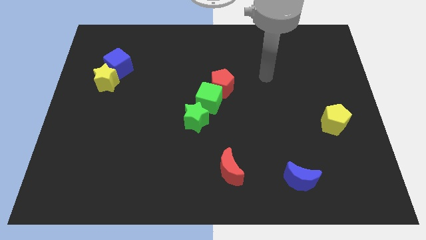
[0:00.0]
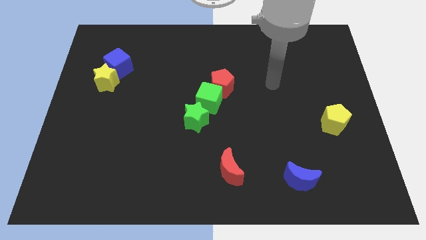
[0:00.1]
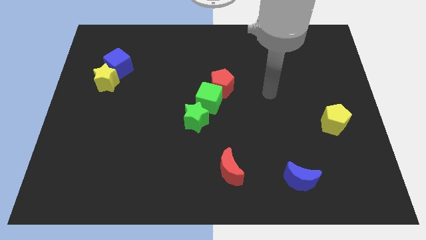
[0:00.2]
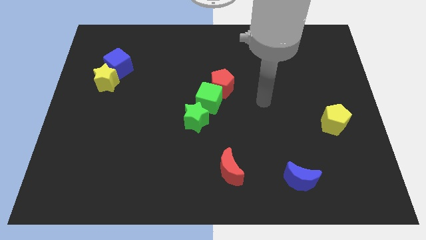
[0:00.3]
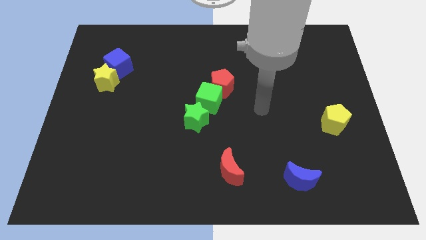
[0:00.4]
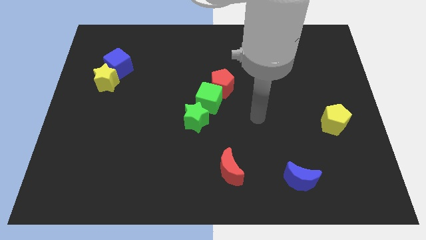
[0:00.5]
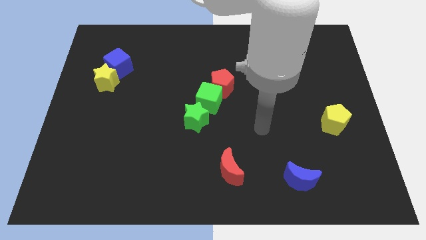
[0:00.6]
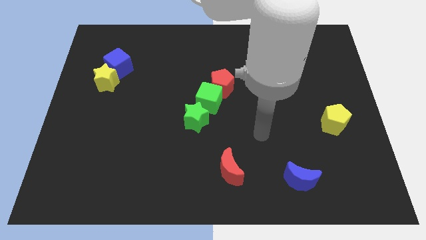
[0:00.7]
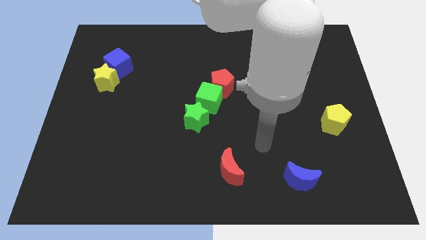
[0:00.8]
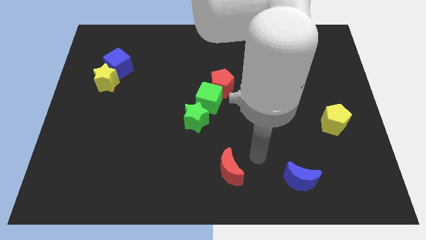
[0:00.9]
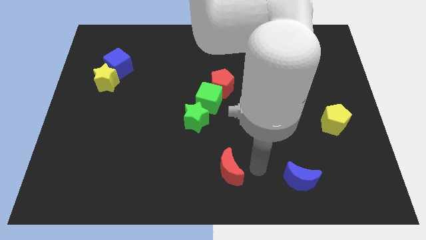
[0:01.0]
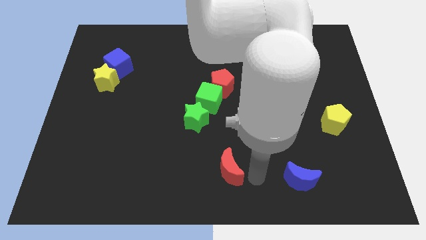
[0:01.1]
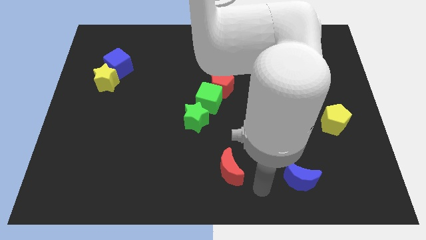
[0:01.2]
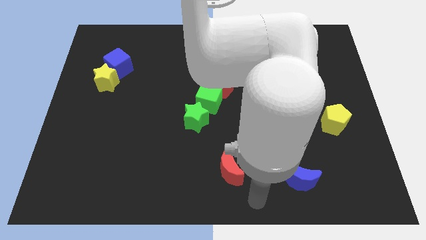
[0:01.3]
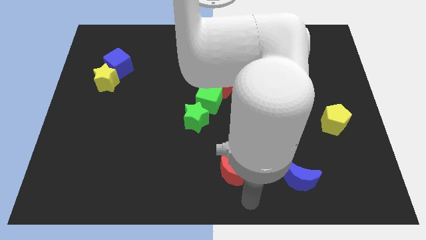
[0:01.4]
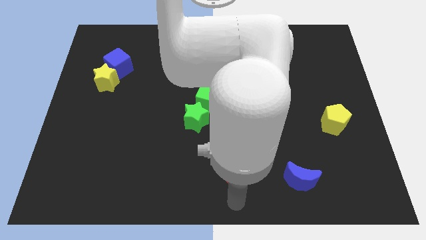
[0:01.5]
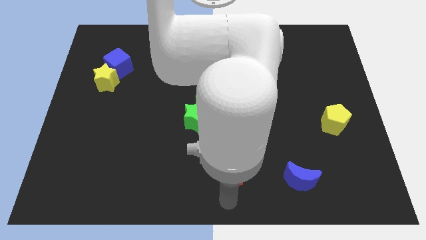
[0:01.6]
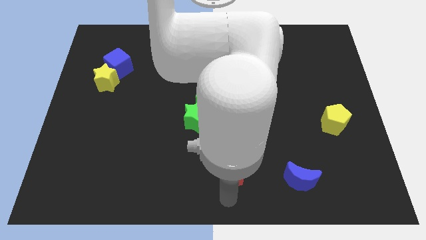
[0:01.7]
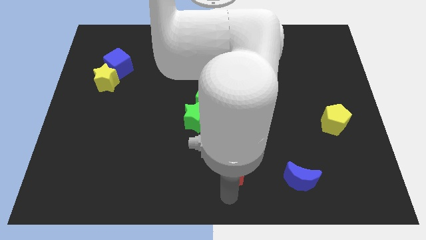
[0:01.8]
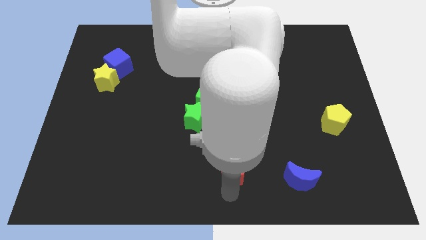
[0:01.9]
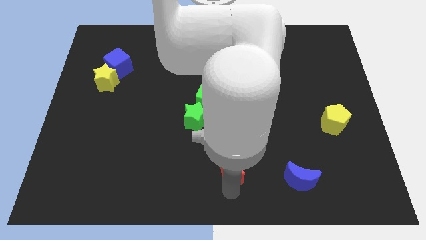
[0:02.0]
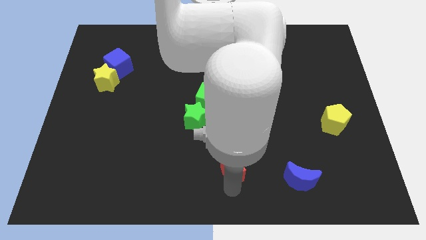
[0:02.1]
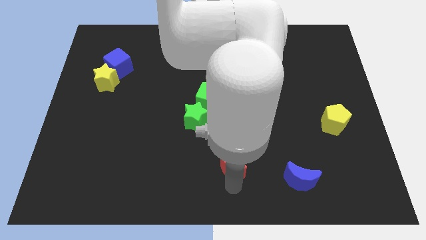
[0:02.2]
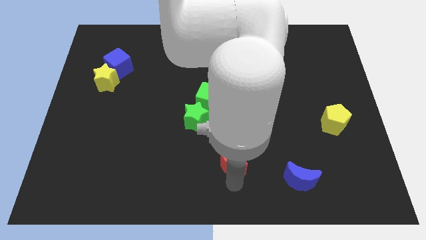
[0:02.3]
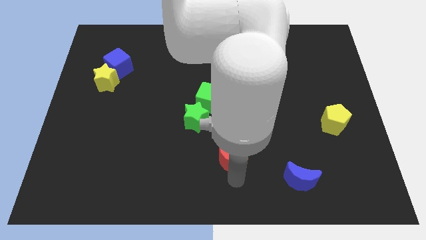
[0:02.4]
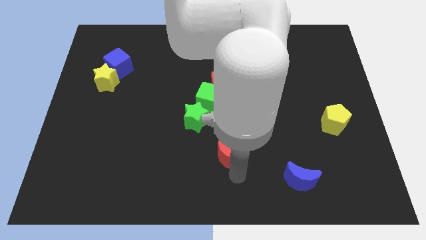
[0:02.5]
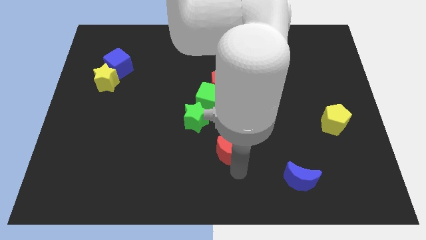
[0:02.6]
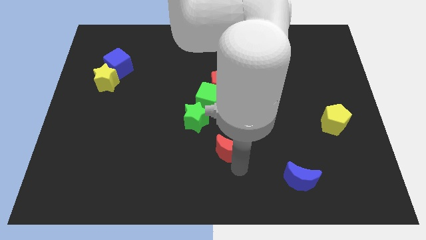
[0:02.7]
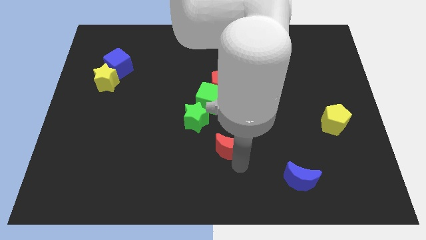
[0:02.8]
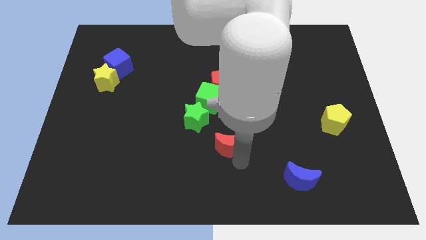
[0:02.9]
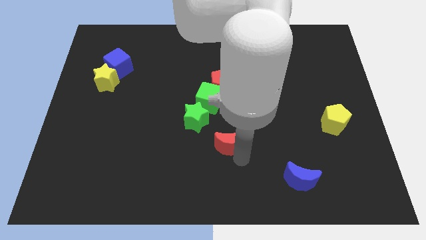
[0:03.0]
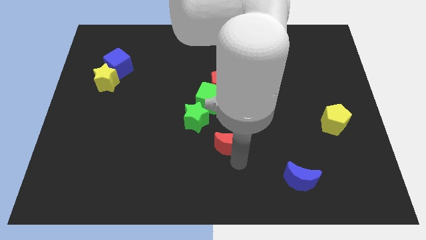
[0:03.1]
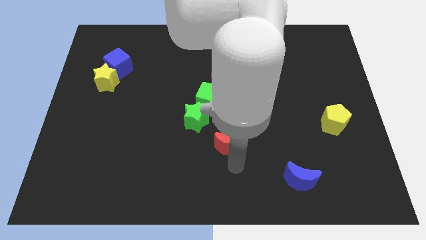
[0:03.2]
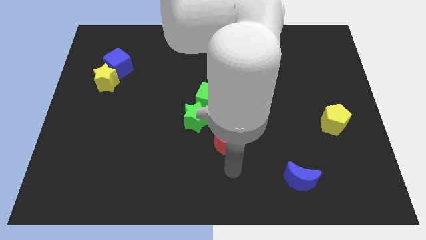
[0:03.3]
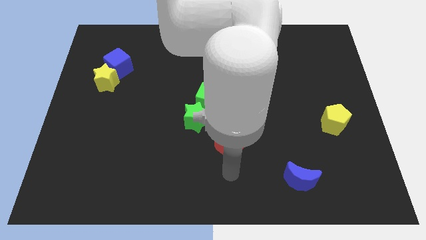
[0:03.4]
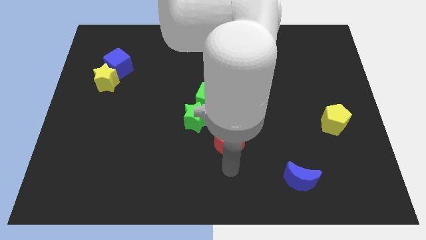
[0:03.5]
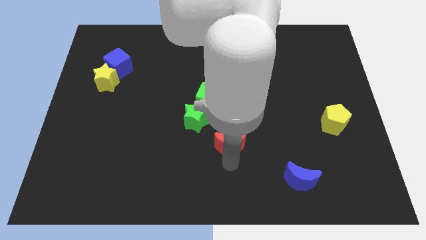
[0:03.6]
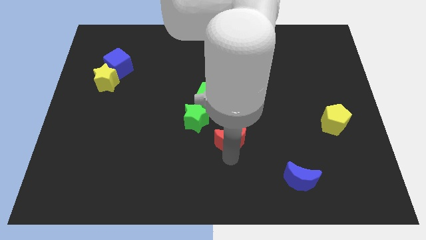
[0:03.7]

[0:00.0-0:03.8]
slightly push the red moon up

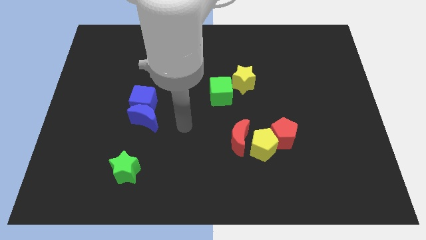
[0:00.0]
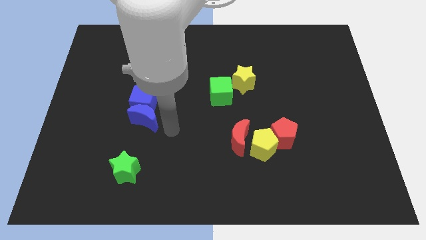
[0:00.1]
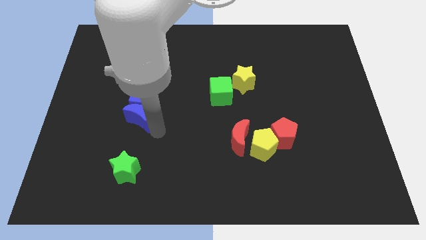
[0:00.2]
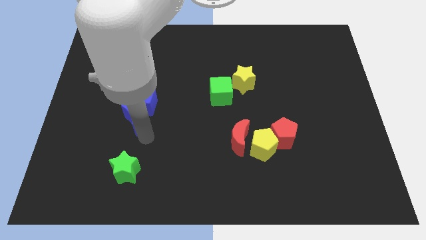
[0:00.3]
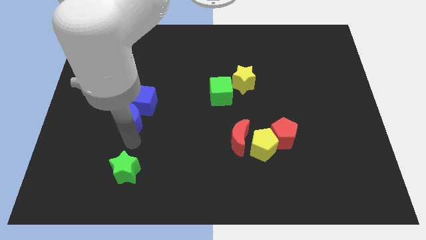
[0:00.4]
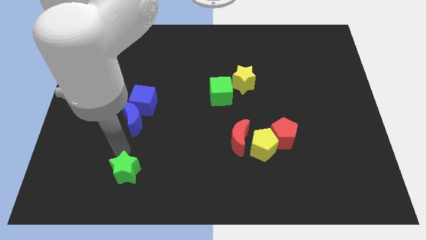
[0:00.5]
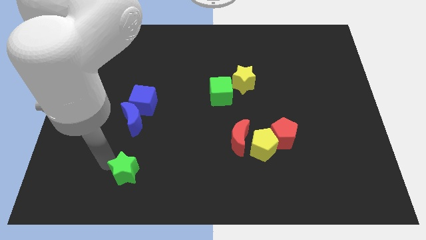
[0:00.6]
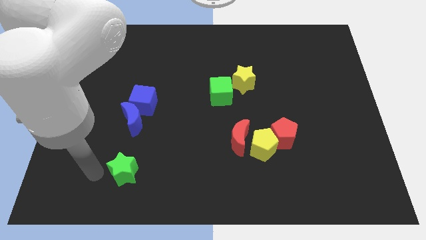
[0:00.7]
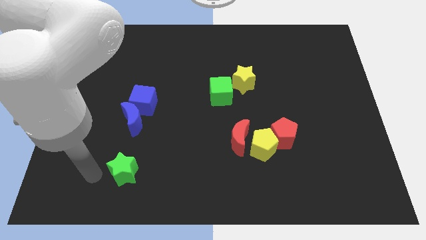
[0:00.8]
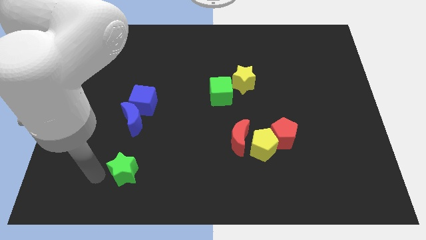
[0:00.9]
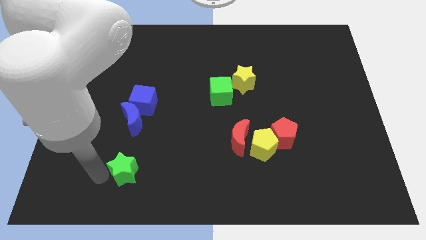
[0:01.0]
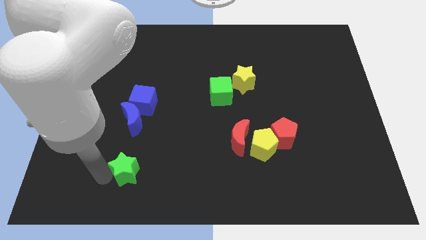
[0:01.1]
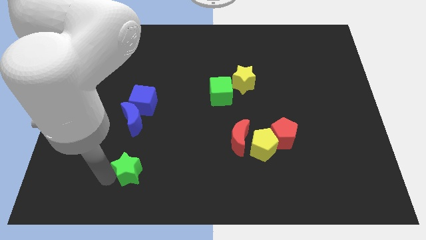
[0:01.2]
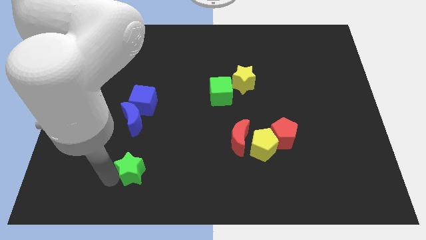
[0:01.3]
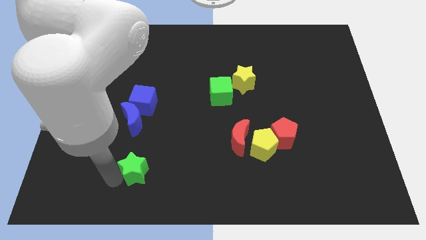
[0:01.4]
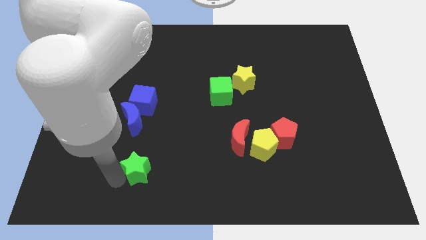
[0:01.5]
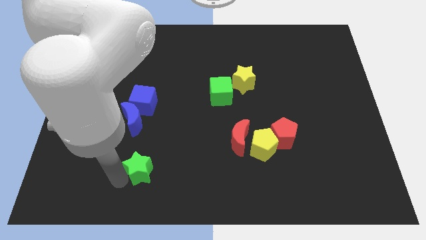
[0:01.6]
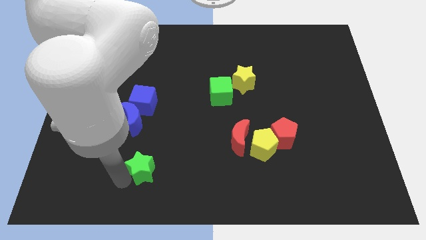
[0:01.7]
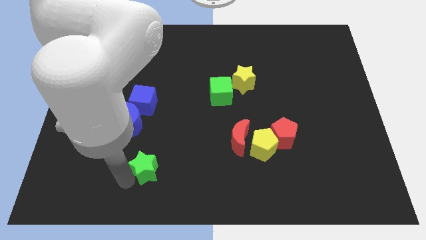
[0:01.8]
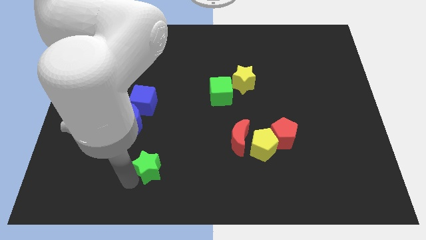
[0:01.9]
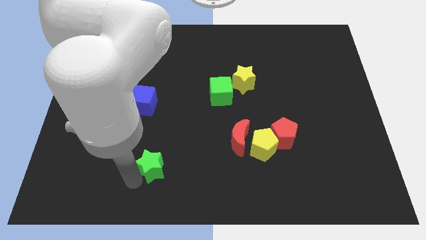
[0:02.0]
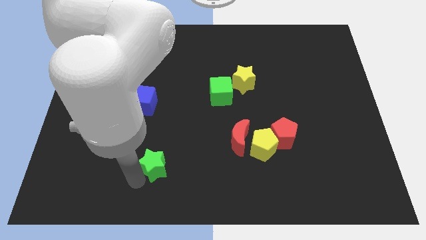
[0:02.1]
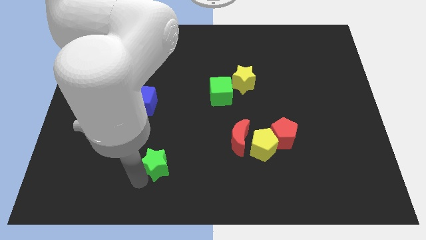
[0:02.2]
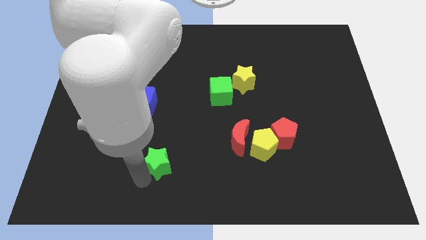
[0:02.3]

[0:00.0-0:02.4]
move the green star a little right

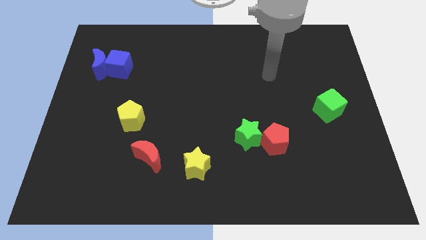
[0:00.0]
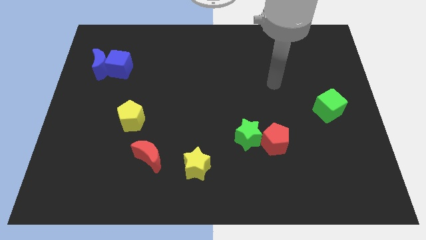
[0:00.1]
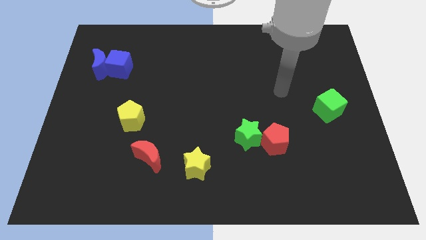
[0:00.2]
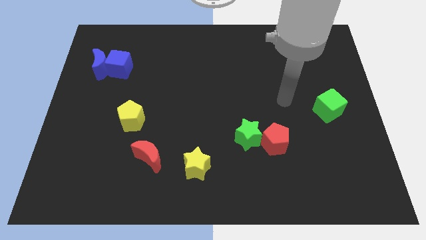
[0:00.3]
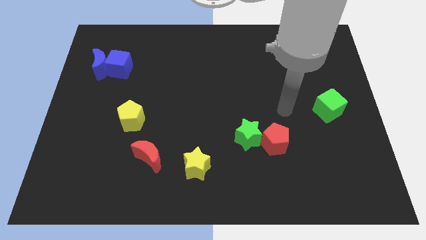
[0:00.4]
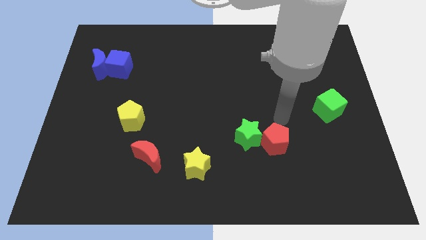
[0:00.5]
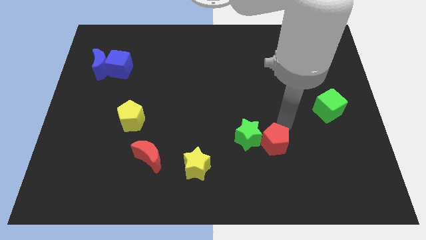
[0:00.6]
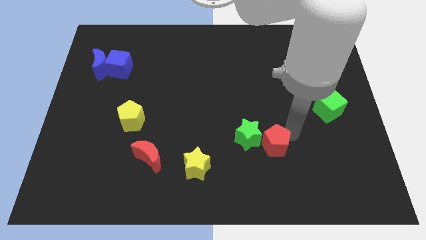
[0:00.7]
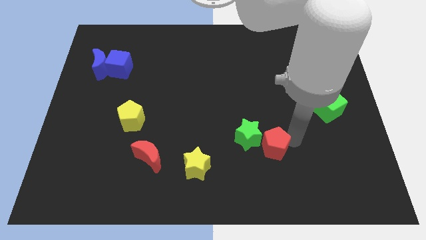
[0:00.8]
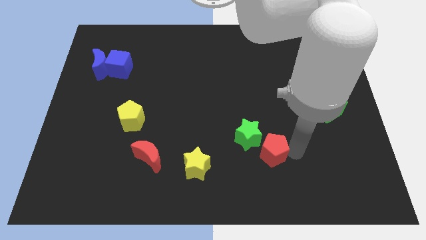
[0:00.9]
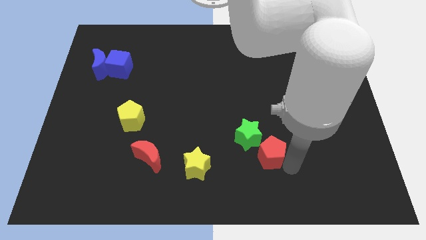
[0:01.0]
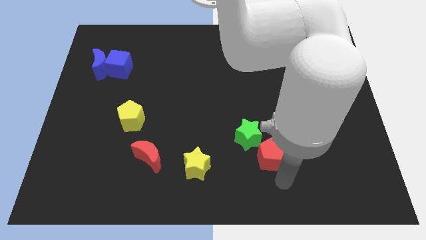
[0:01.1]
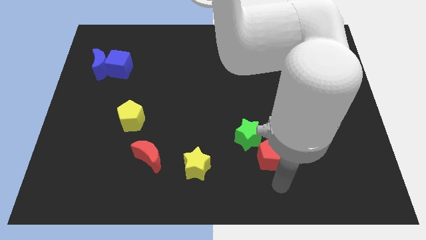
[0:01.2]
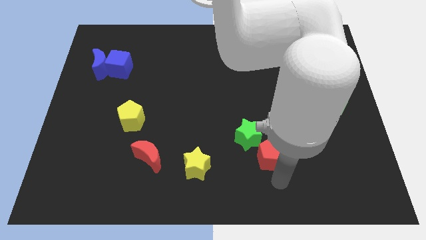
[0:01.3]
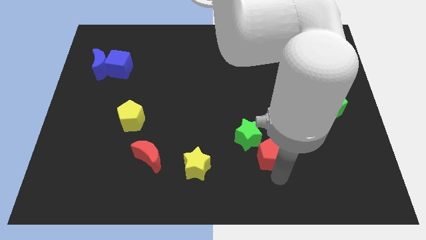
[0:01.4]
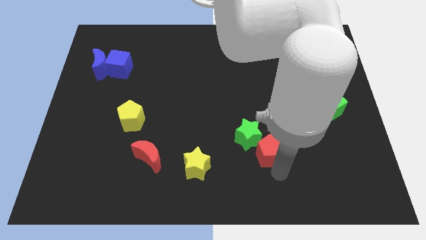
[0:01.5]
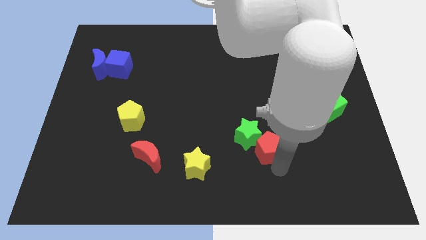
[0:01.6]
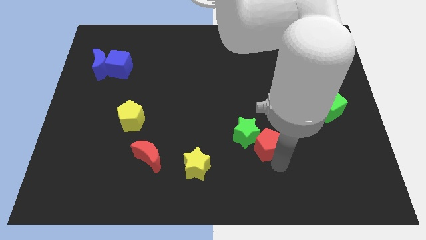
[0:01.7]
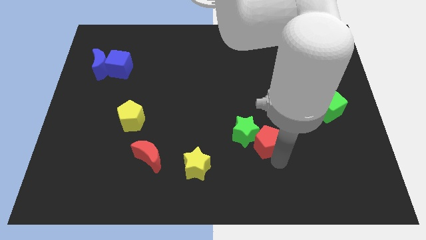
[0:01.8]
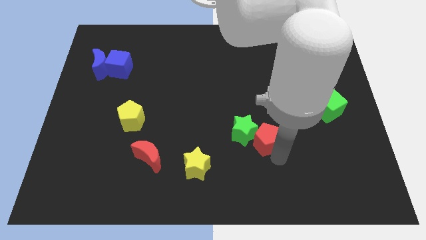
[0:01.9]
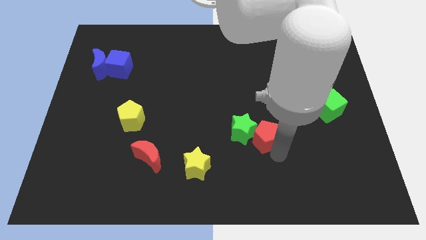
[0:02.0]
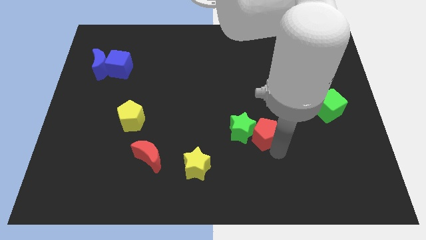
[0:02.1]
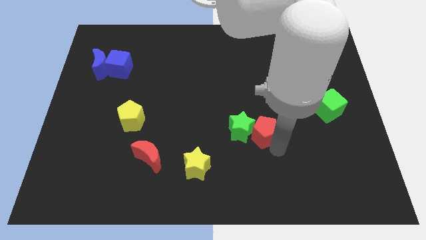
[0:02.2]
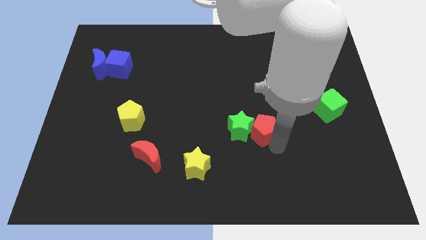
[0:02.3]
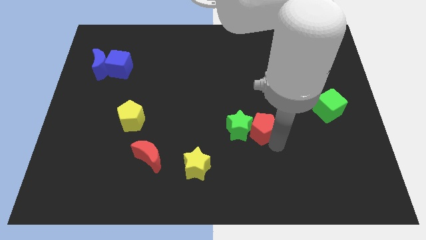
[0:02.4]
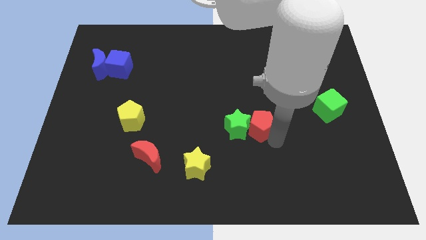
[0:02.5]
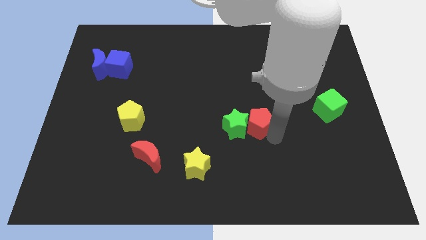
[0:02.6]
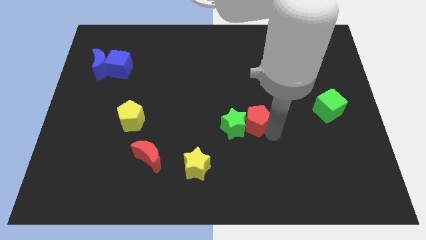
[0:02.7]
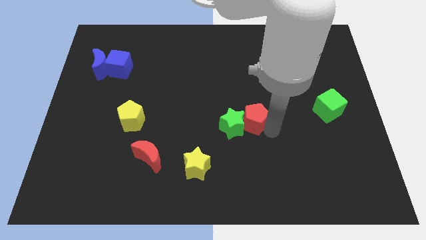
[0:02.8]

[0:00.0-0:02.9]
slightly slide the red pentagon diagonally up and to the left
